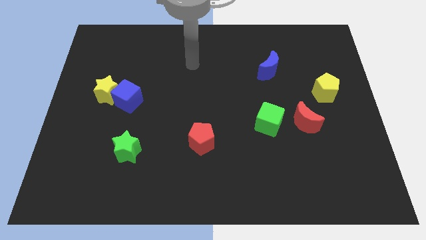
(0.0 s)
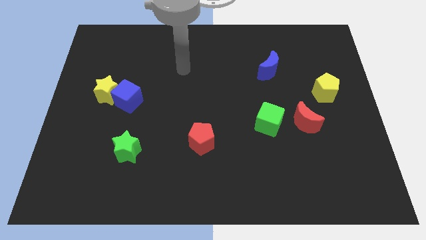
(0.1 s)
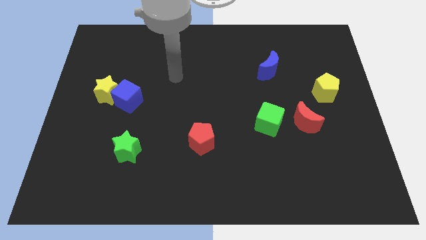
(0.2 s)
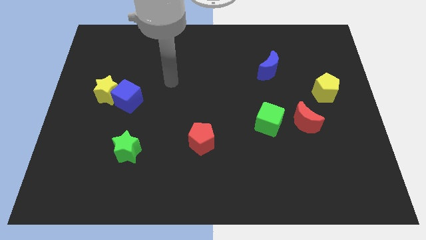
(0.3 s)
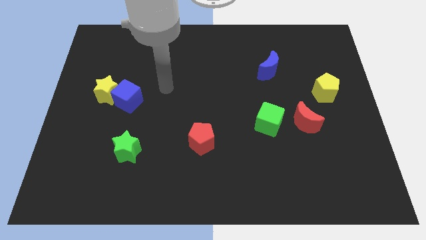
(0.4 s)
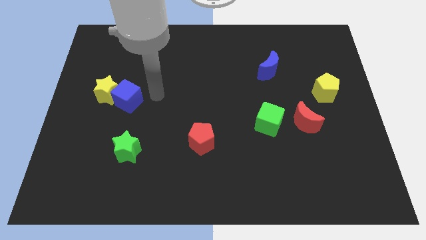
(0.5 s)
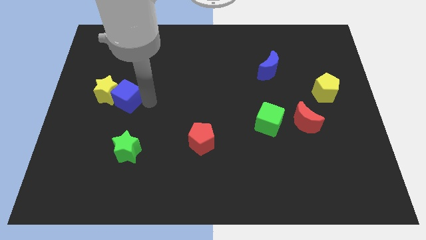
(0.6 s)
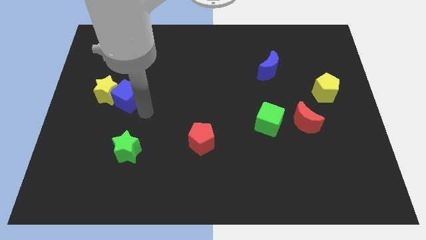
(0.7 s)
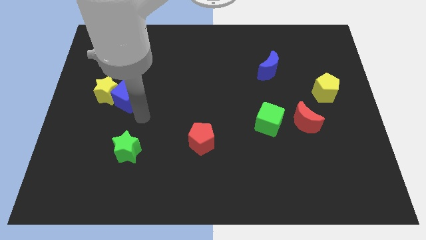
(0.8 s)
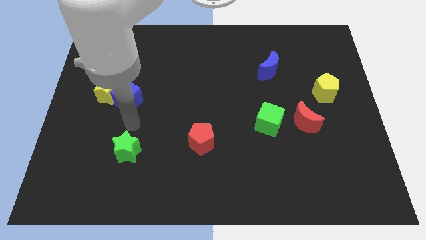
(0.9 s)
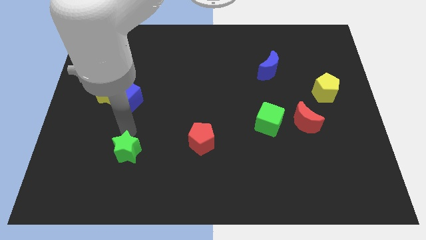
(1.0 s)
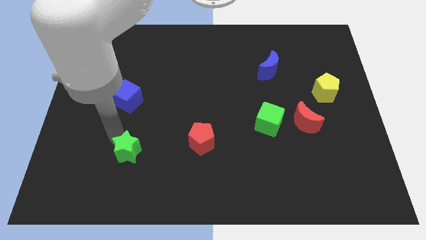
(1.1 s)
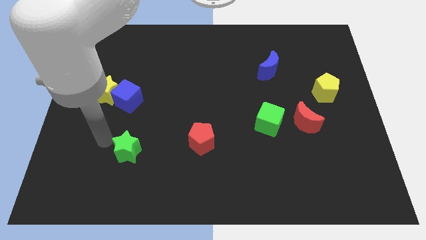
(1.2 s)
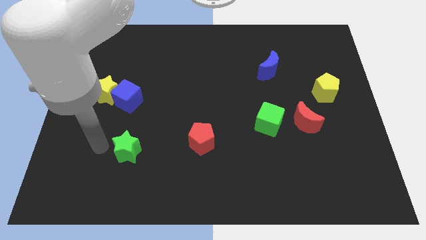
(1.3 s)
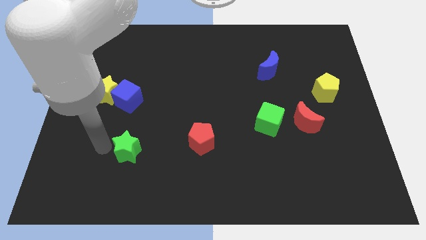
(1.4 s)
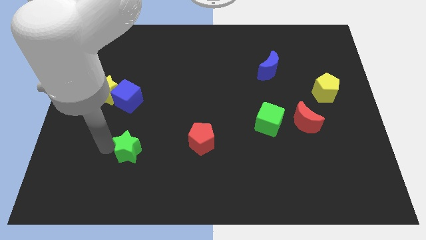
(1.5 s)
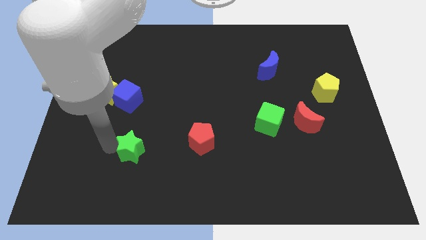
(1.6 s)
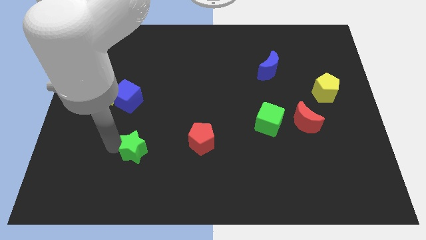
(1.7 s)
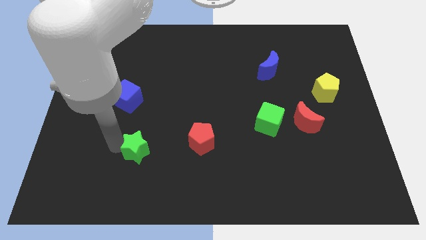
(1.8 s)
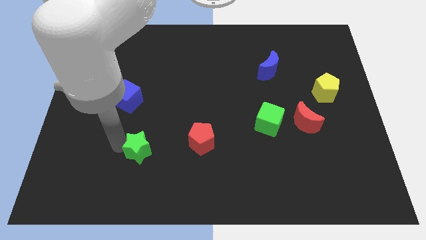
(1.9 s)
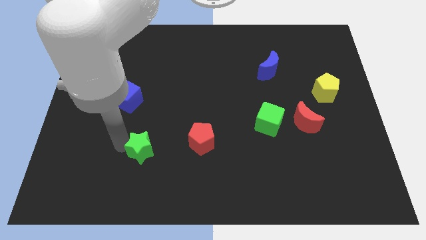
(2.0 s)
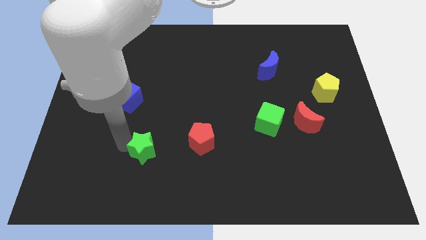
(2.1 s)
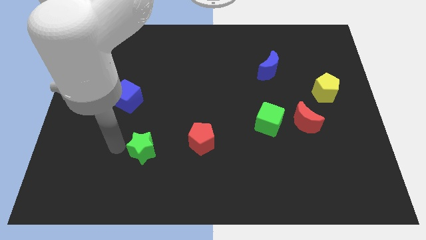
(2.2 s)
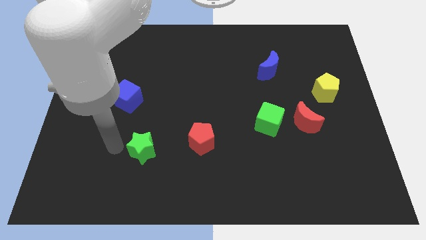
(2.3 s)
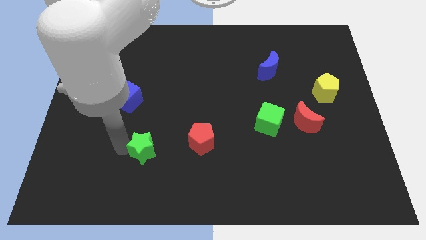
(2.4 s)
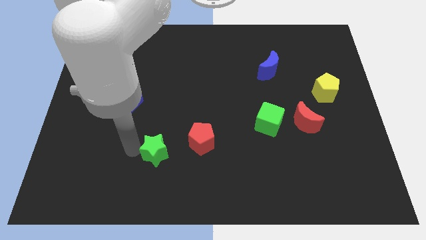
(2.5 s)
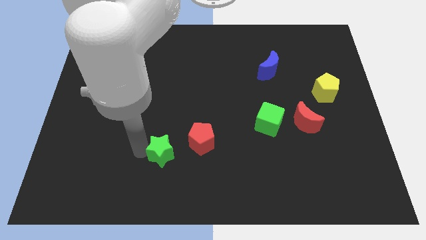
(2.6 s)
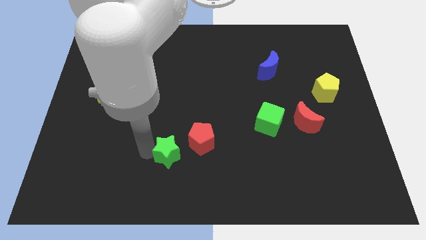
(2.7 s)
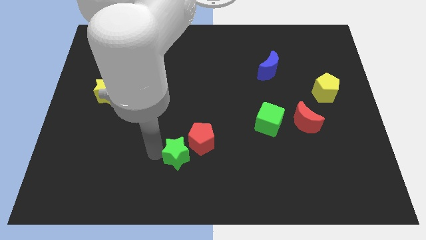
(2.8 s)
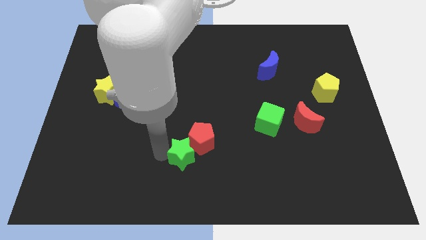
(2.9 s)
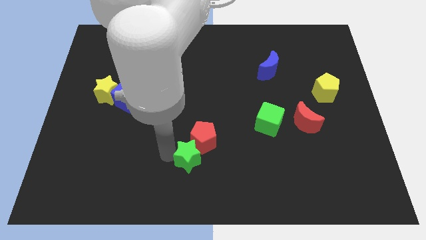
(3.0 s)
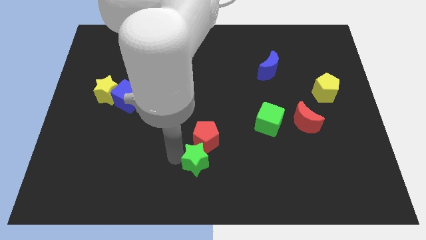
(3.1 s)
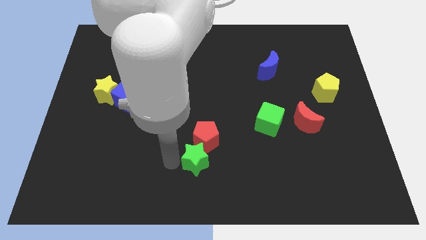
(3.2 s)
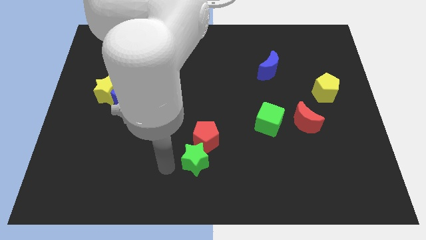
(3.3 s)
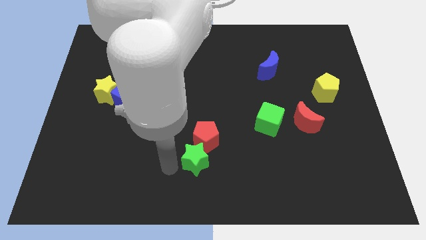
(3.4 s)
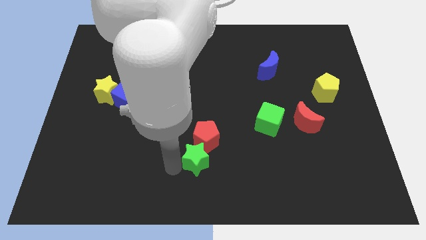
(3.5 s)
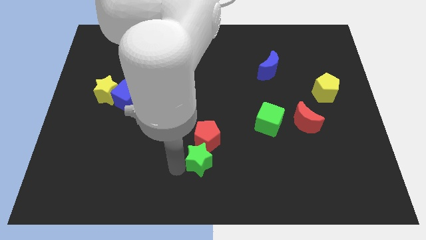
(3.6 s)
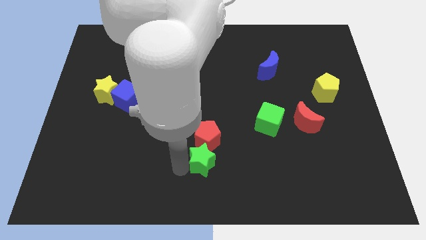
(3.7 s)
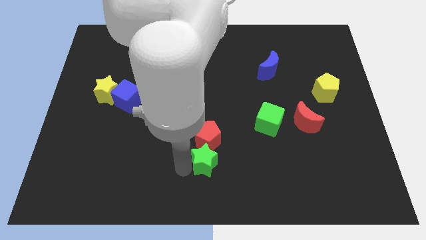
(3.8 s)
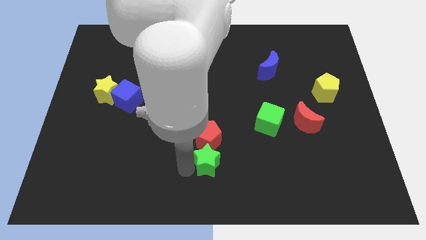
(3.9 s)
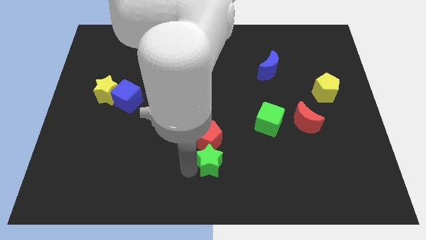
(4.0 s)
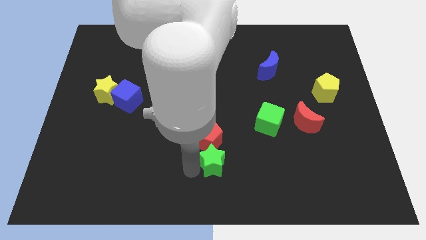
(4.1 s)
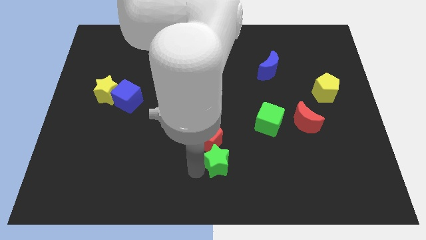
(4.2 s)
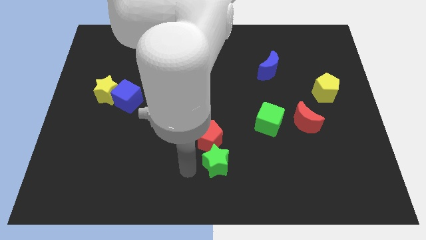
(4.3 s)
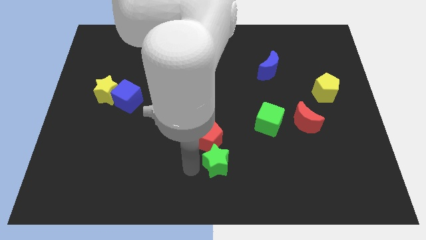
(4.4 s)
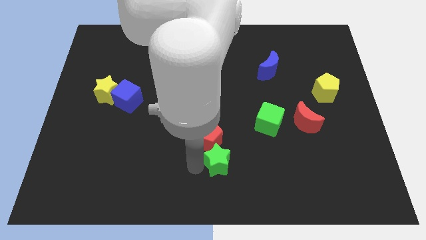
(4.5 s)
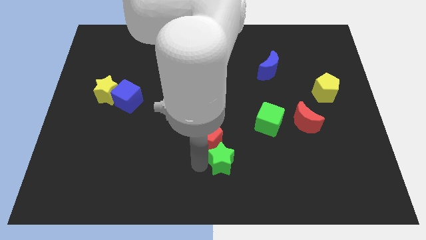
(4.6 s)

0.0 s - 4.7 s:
push the green star right

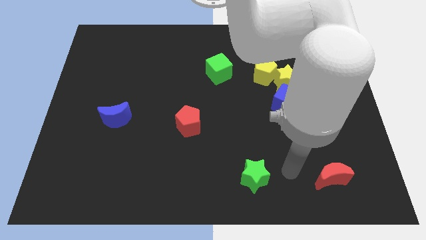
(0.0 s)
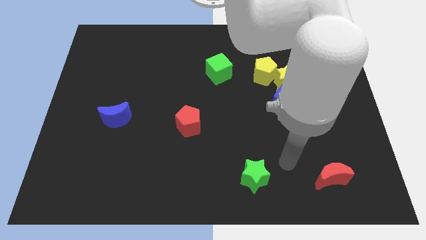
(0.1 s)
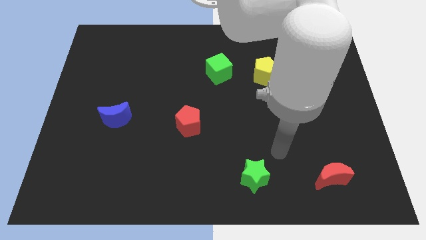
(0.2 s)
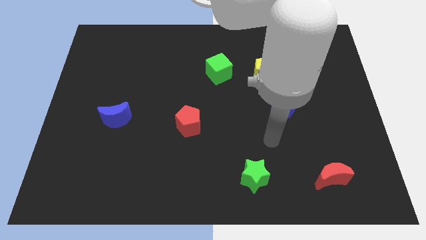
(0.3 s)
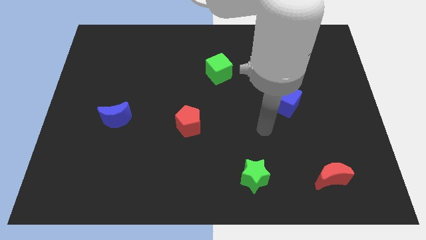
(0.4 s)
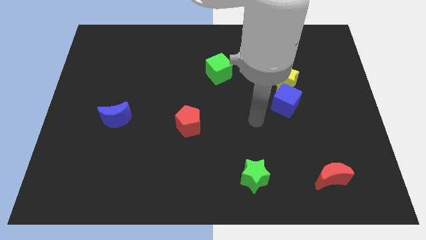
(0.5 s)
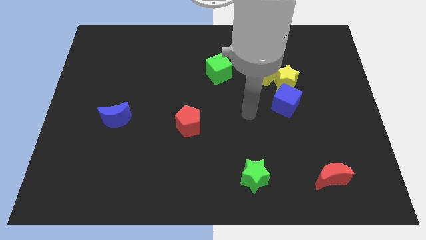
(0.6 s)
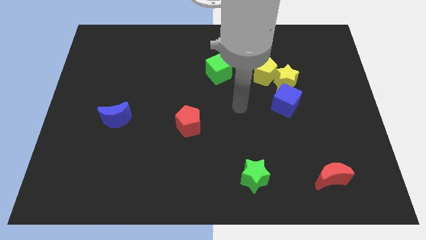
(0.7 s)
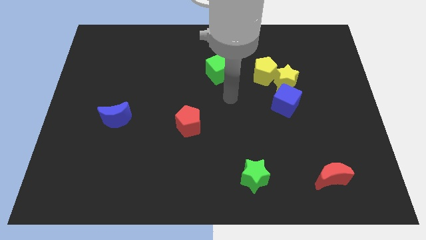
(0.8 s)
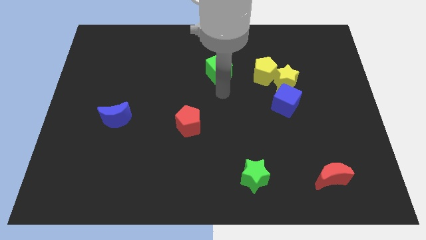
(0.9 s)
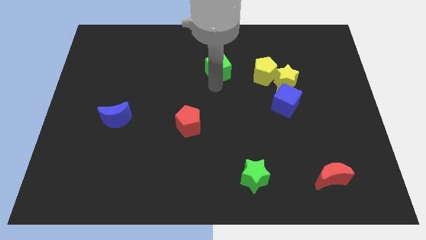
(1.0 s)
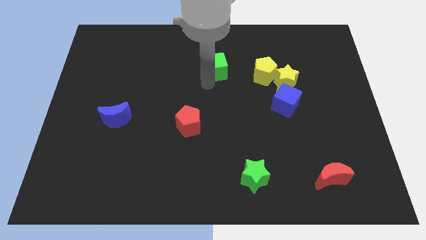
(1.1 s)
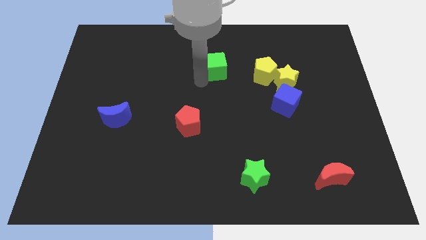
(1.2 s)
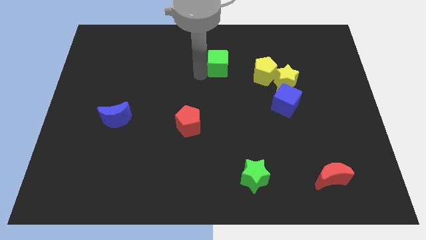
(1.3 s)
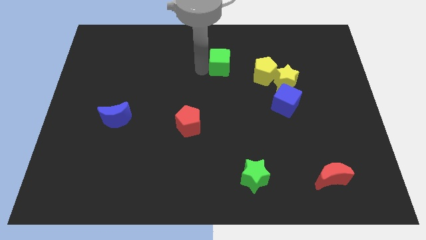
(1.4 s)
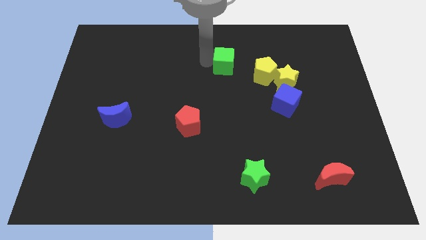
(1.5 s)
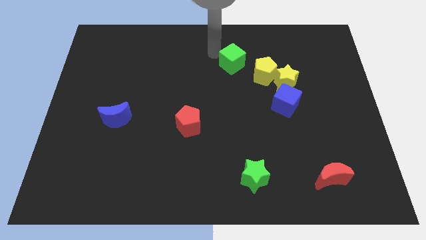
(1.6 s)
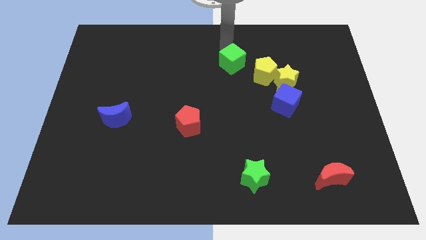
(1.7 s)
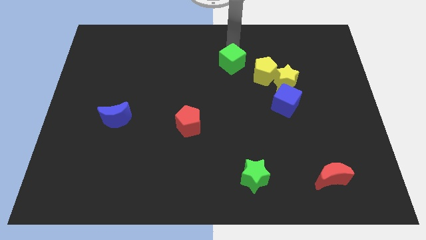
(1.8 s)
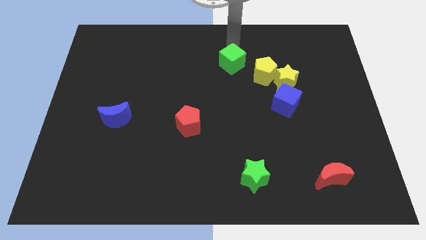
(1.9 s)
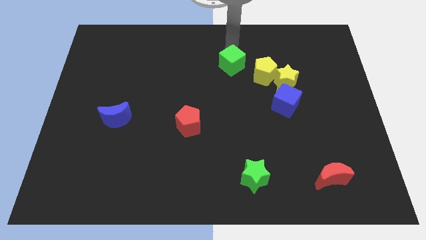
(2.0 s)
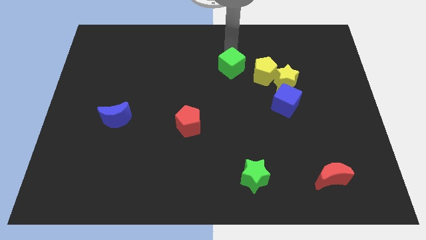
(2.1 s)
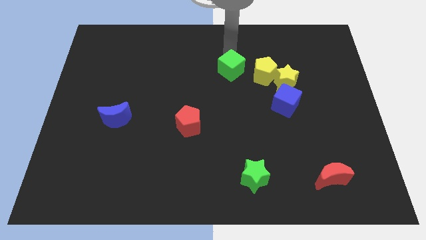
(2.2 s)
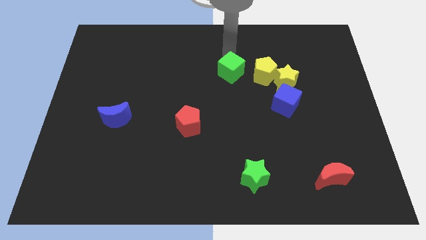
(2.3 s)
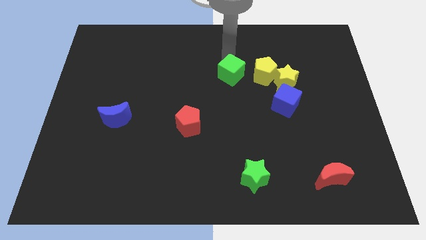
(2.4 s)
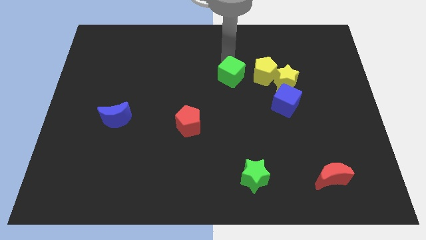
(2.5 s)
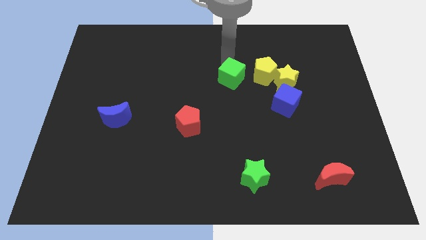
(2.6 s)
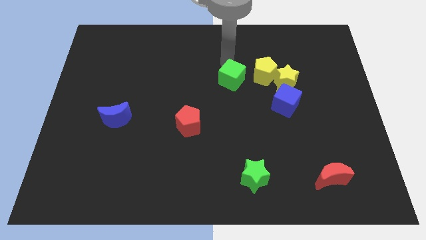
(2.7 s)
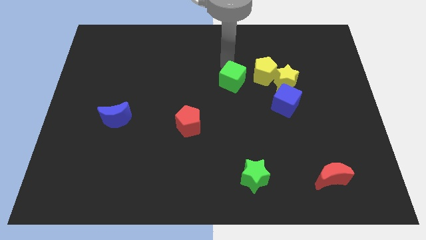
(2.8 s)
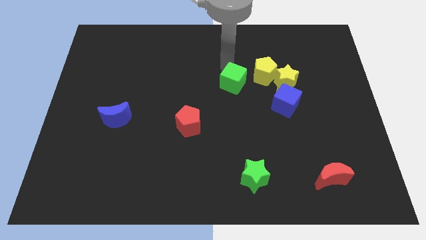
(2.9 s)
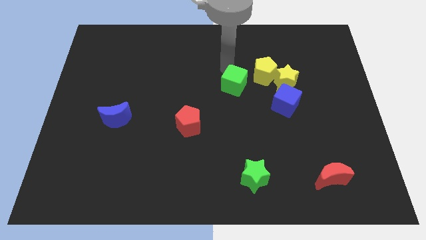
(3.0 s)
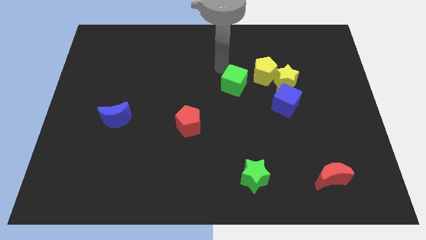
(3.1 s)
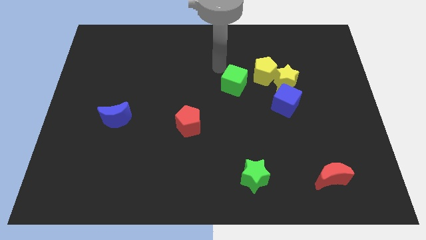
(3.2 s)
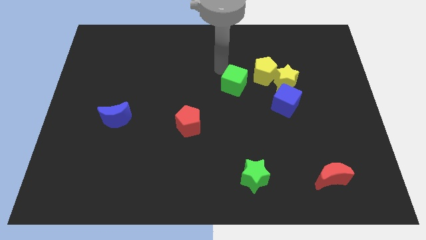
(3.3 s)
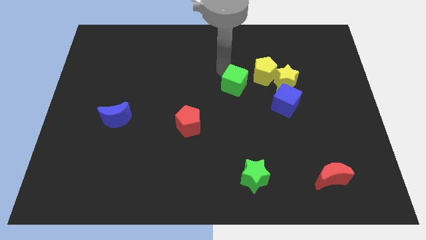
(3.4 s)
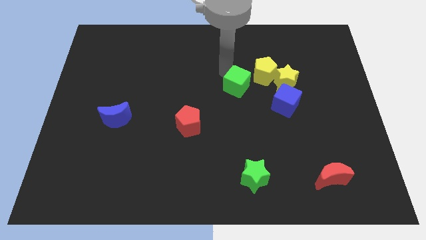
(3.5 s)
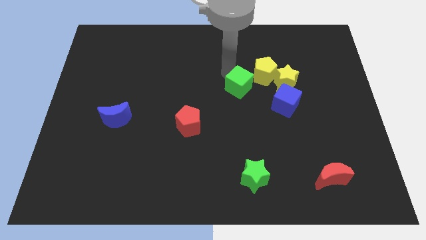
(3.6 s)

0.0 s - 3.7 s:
slide the green cube somewhat downwards and to the right diagonally
